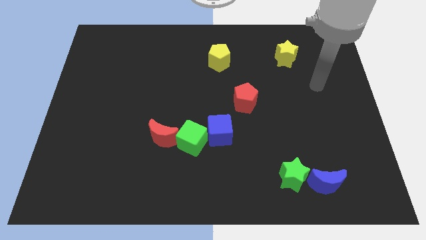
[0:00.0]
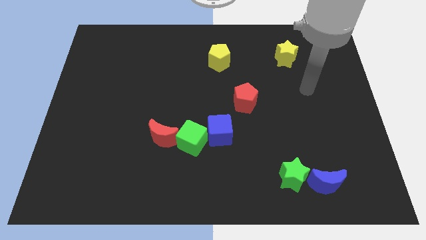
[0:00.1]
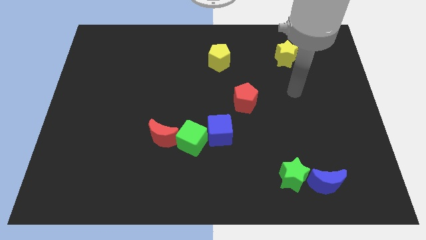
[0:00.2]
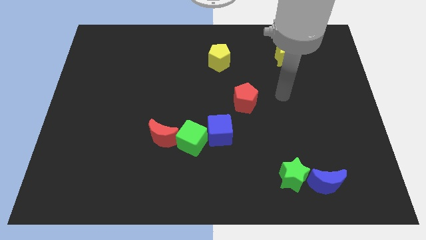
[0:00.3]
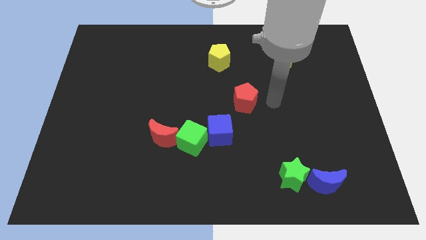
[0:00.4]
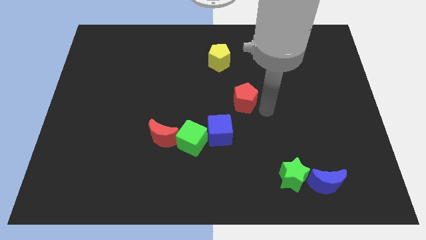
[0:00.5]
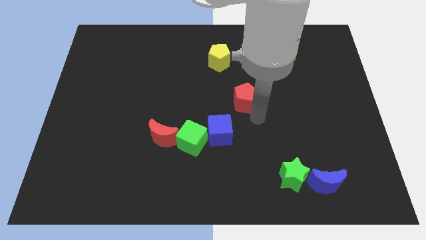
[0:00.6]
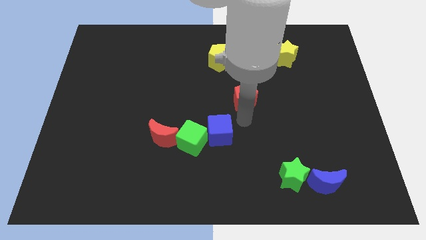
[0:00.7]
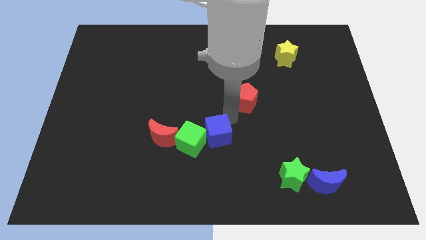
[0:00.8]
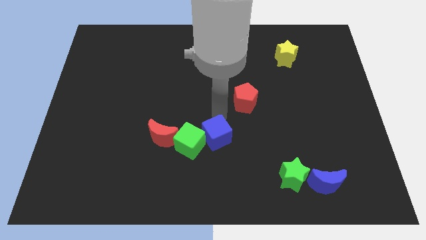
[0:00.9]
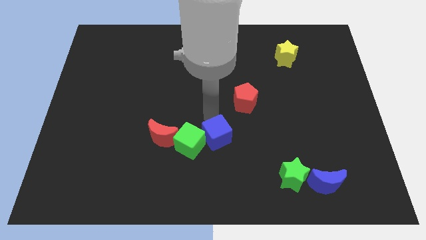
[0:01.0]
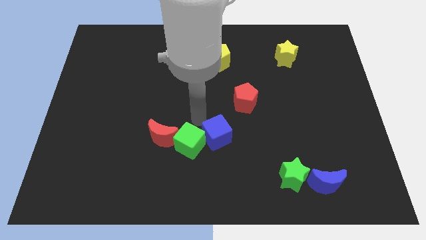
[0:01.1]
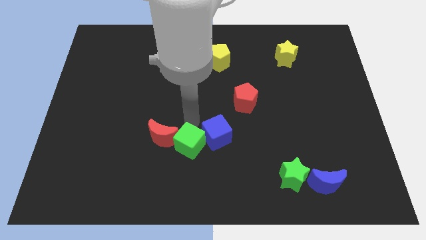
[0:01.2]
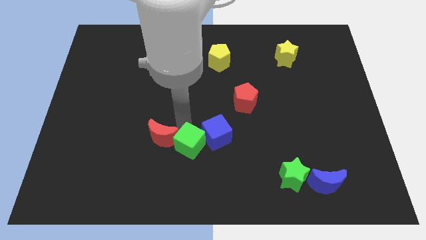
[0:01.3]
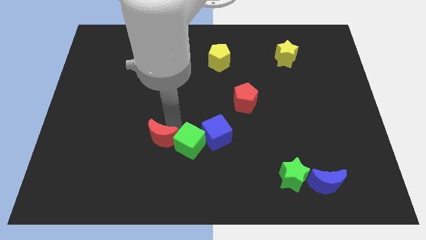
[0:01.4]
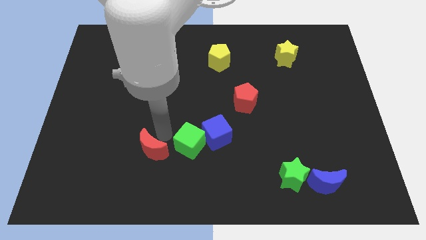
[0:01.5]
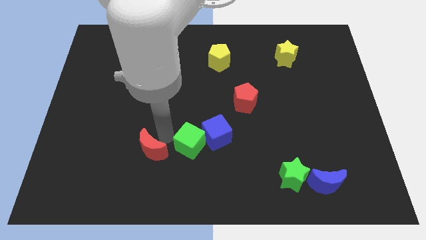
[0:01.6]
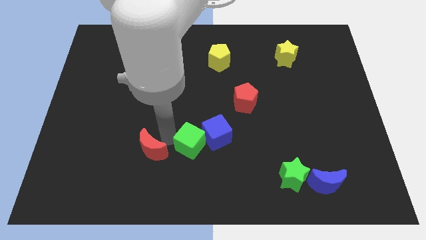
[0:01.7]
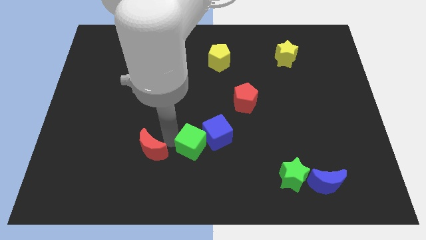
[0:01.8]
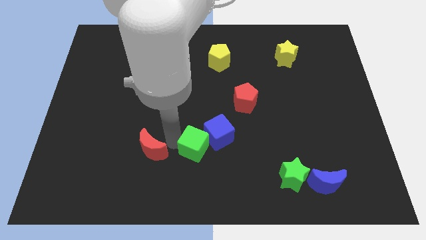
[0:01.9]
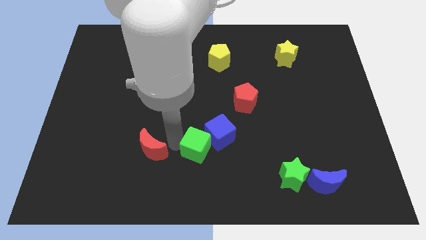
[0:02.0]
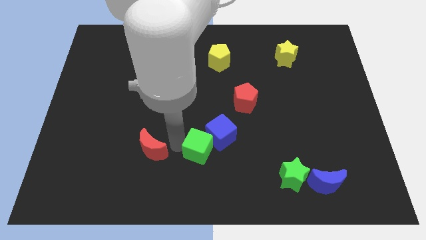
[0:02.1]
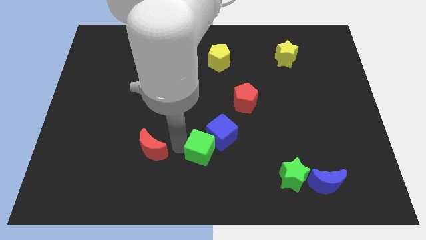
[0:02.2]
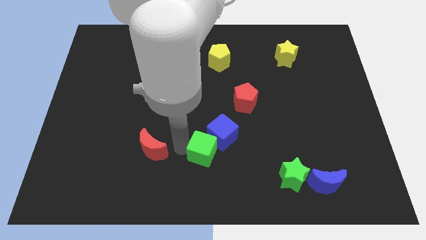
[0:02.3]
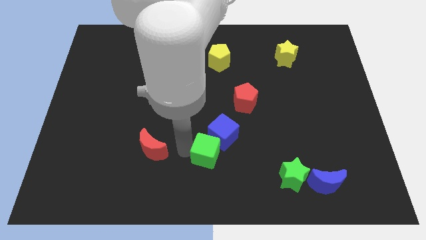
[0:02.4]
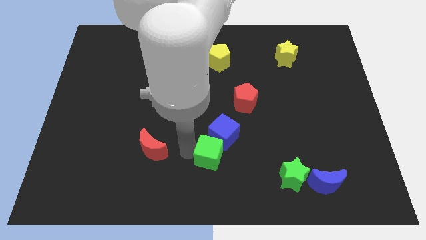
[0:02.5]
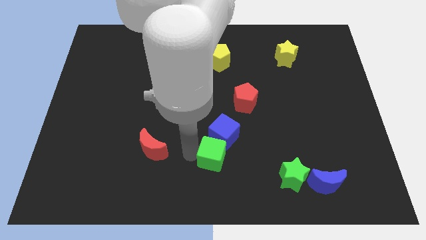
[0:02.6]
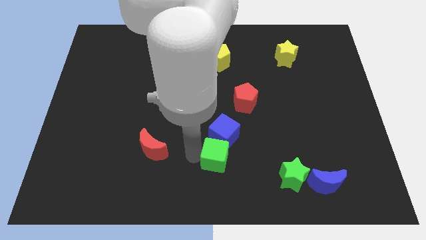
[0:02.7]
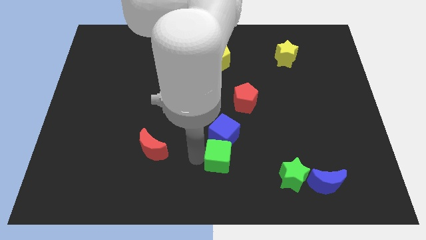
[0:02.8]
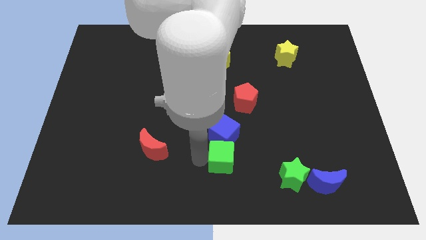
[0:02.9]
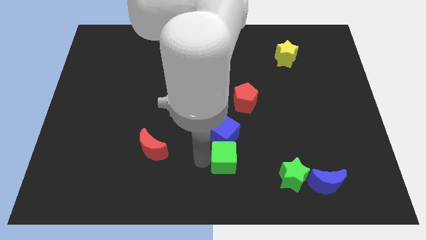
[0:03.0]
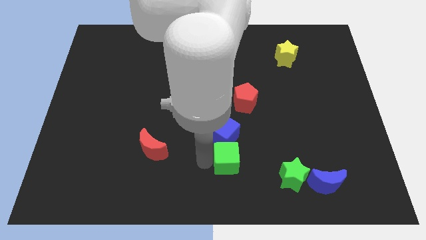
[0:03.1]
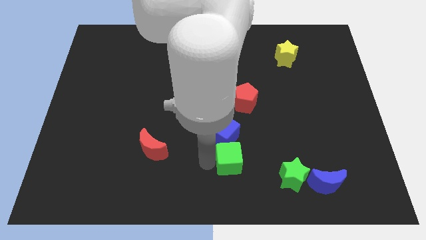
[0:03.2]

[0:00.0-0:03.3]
slightly slide the green cube to the right

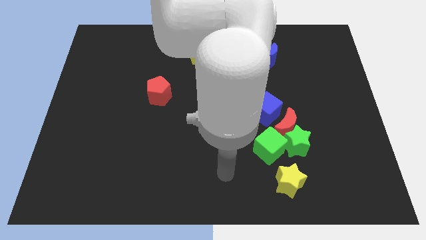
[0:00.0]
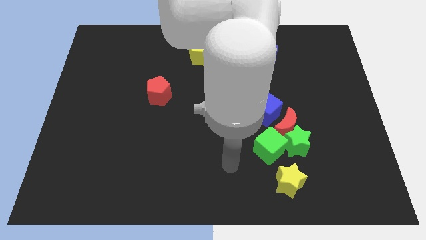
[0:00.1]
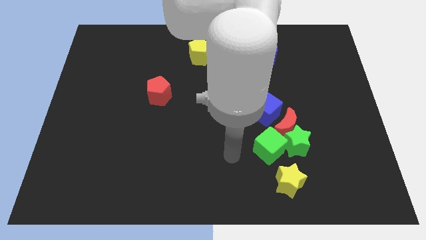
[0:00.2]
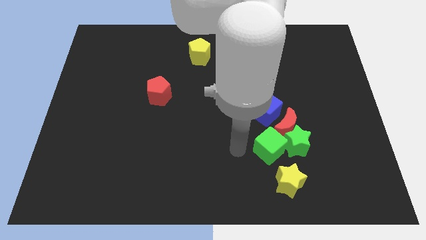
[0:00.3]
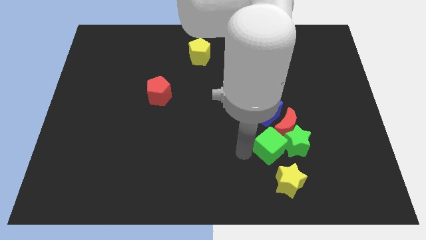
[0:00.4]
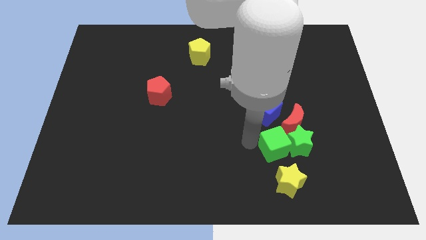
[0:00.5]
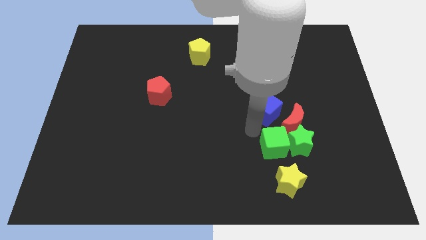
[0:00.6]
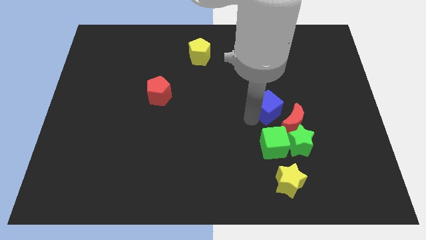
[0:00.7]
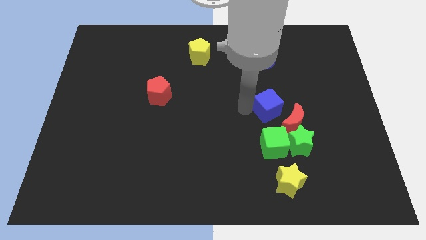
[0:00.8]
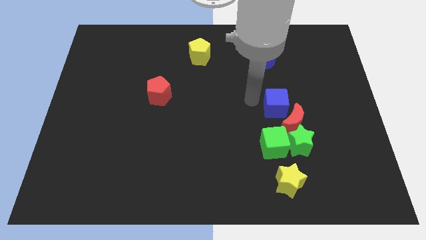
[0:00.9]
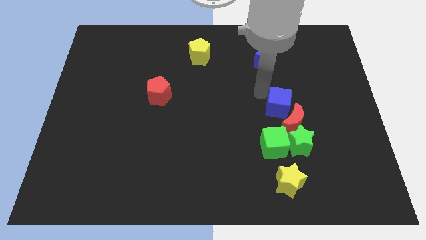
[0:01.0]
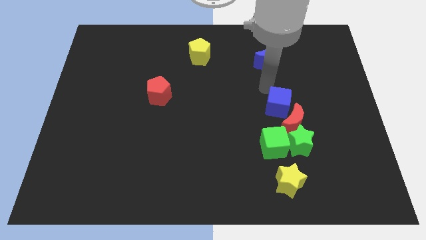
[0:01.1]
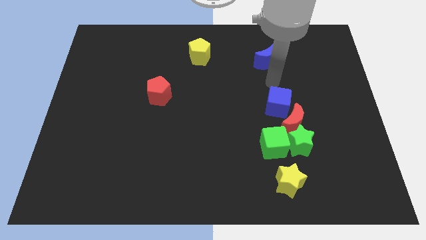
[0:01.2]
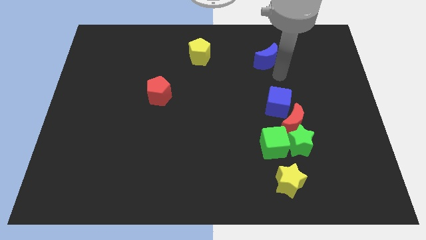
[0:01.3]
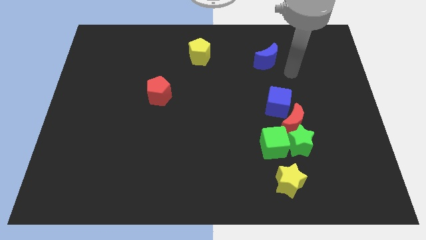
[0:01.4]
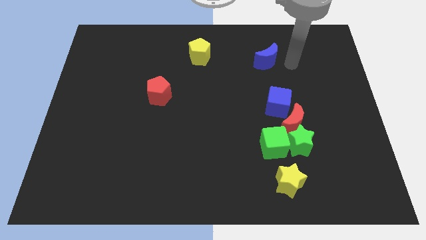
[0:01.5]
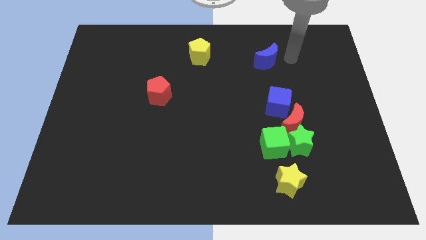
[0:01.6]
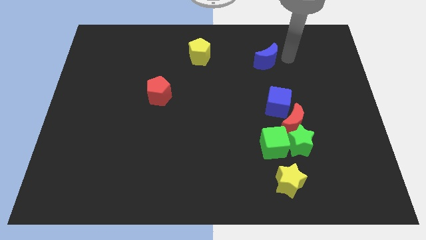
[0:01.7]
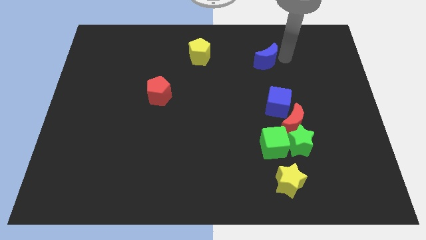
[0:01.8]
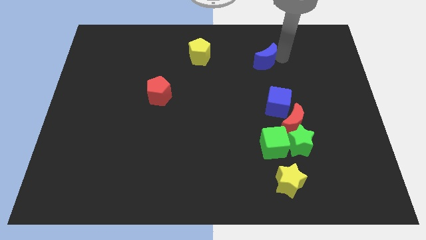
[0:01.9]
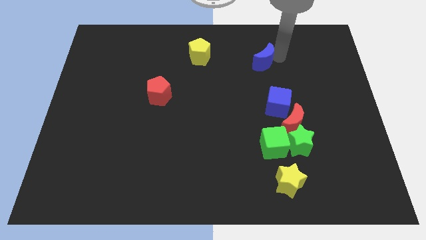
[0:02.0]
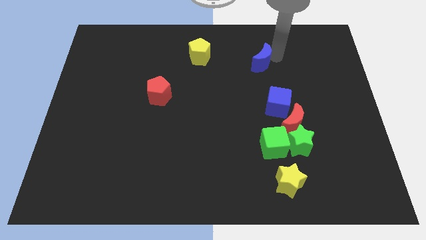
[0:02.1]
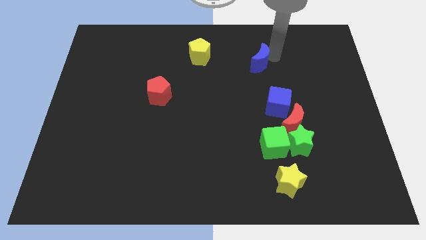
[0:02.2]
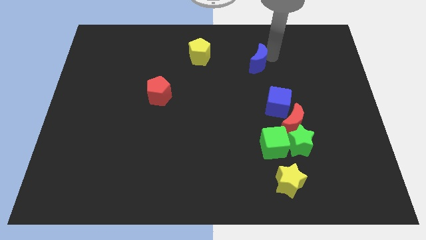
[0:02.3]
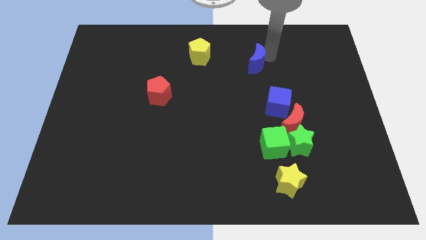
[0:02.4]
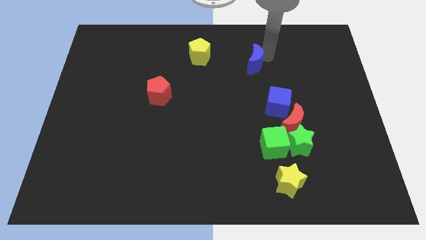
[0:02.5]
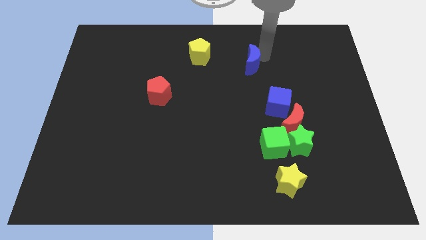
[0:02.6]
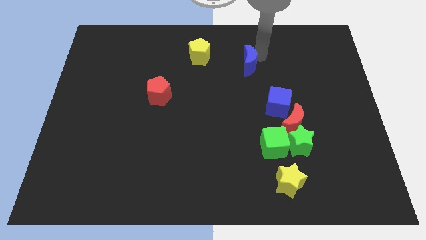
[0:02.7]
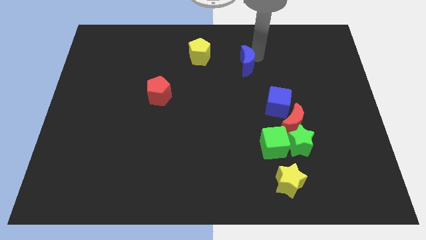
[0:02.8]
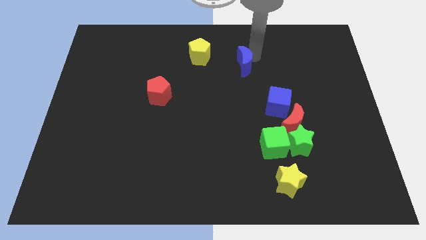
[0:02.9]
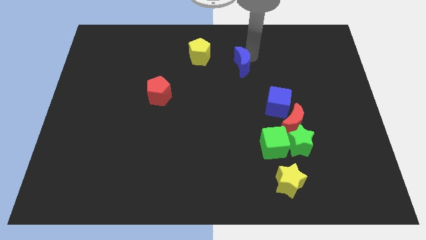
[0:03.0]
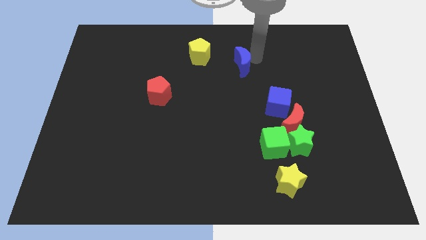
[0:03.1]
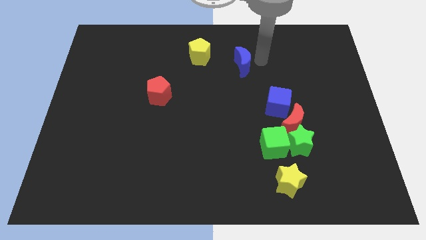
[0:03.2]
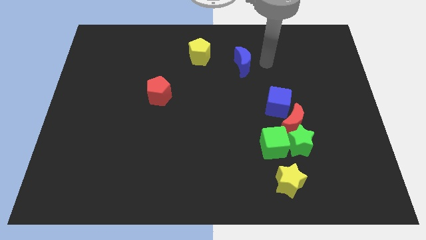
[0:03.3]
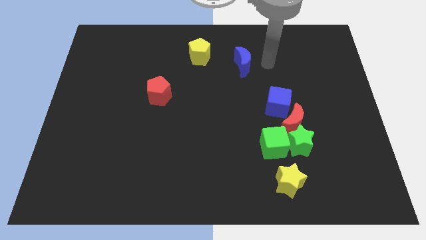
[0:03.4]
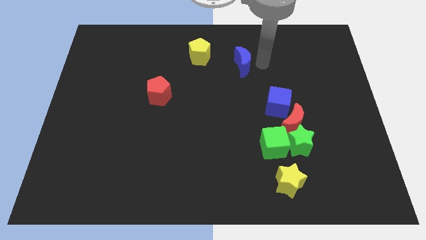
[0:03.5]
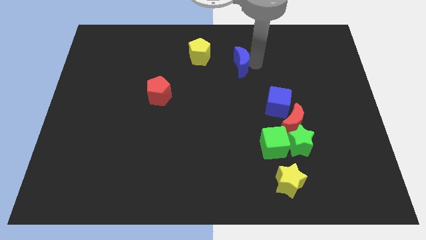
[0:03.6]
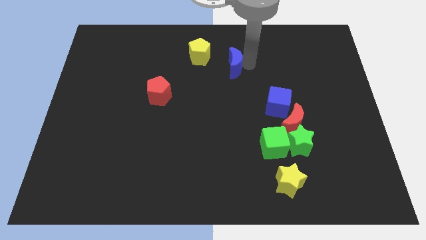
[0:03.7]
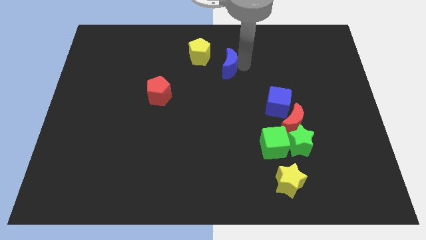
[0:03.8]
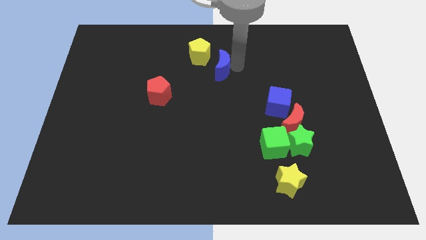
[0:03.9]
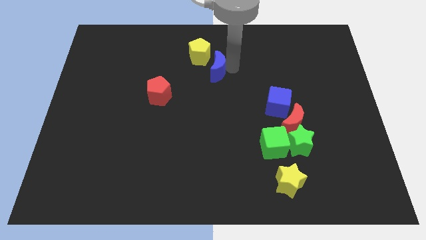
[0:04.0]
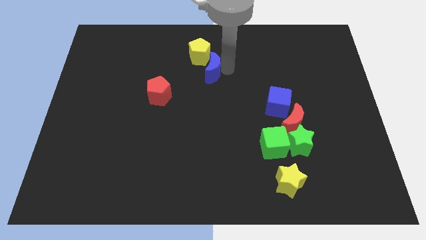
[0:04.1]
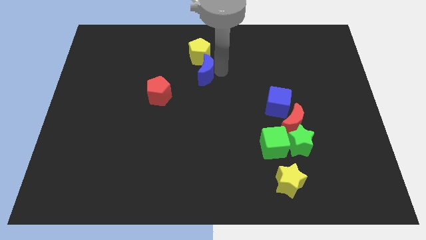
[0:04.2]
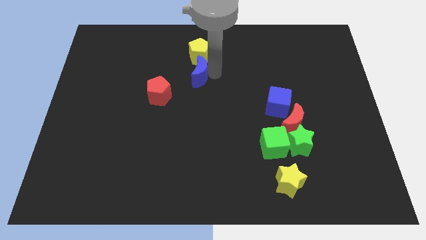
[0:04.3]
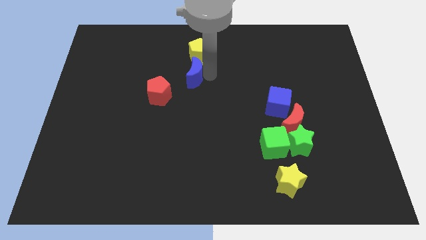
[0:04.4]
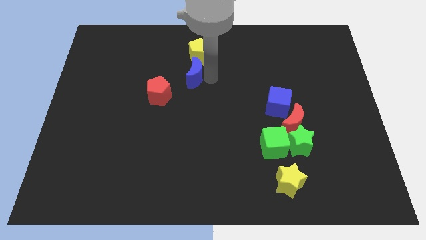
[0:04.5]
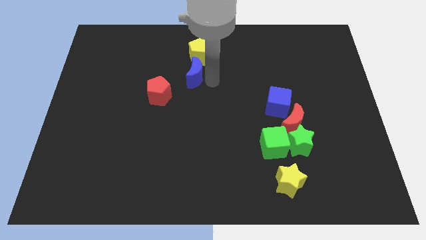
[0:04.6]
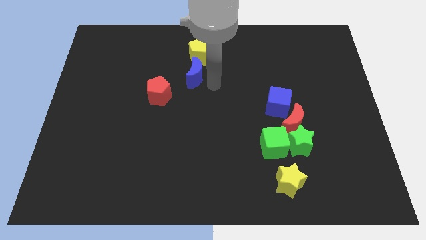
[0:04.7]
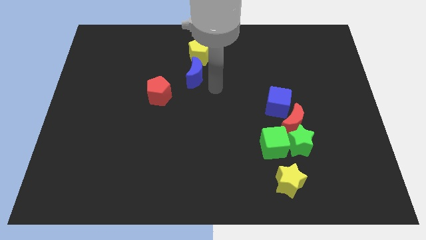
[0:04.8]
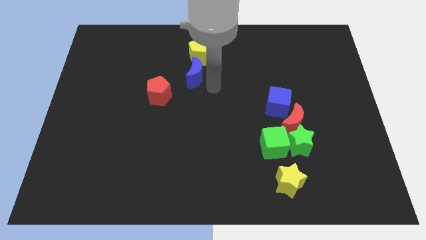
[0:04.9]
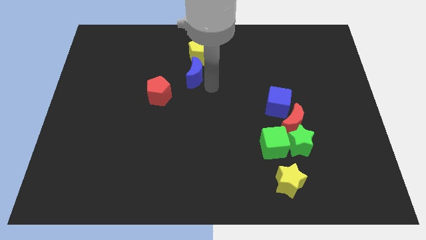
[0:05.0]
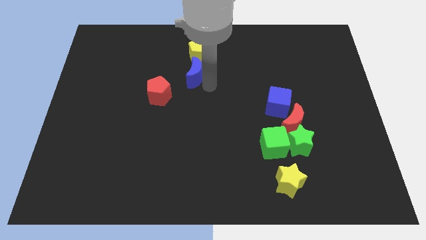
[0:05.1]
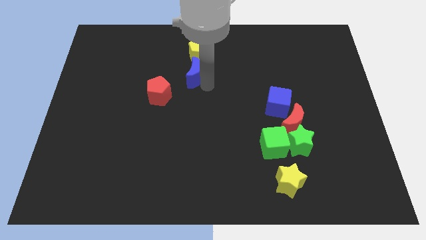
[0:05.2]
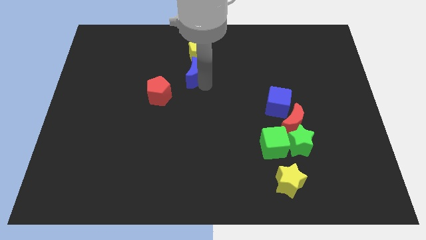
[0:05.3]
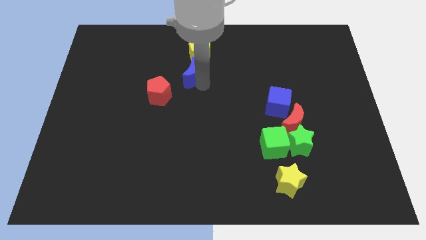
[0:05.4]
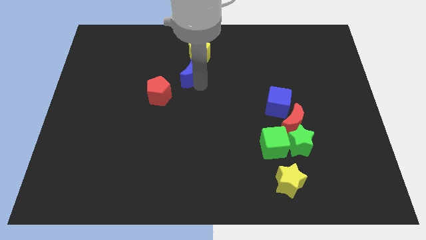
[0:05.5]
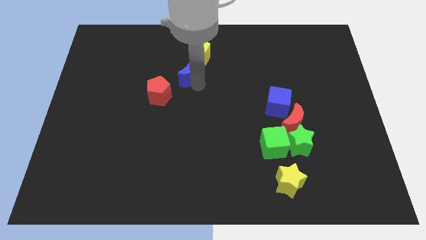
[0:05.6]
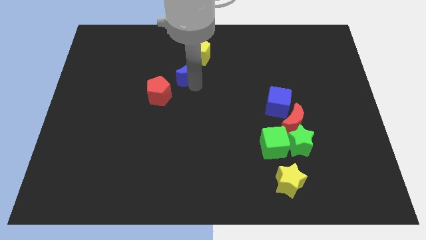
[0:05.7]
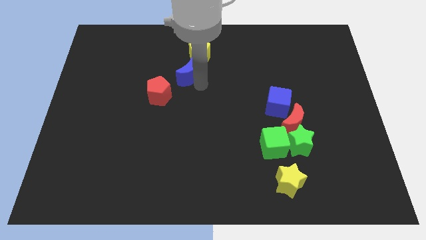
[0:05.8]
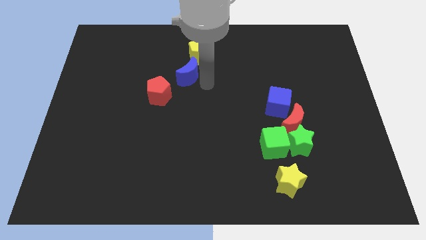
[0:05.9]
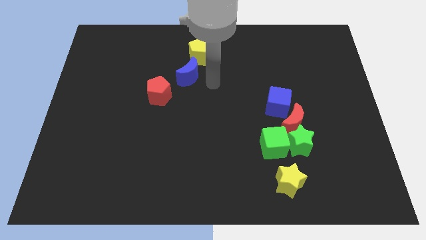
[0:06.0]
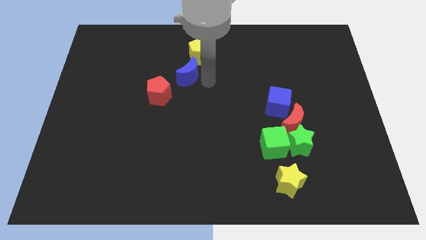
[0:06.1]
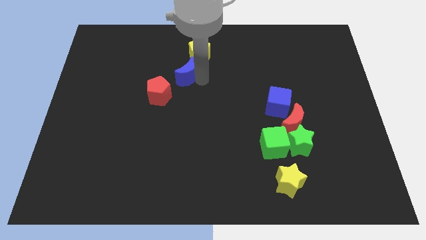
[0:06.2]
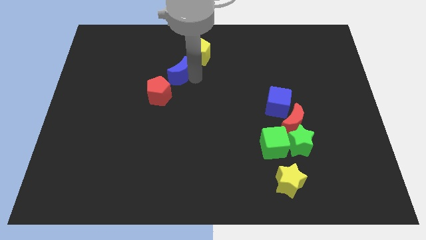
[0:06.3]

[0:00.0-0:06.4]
slide the blue moon left
